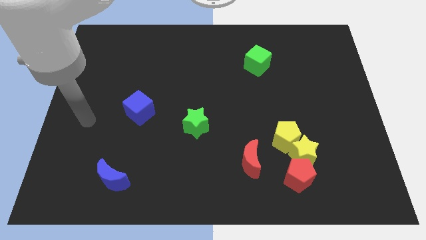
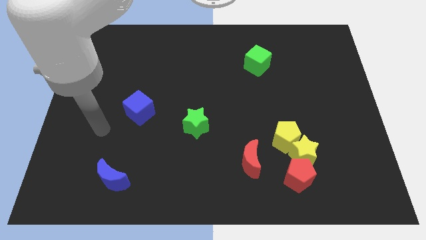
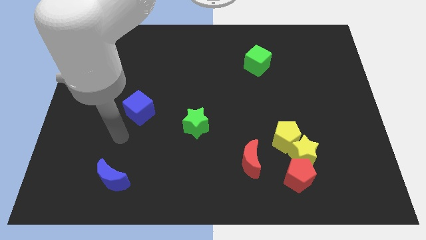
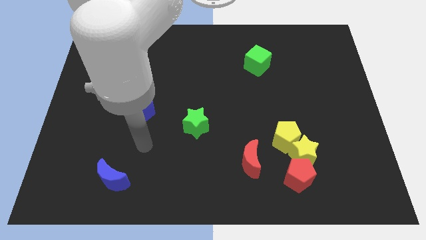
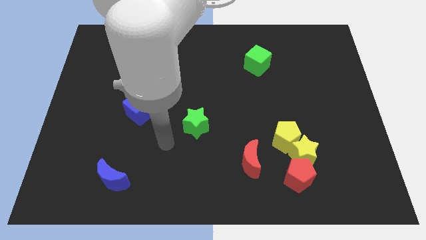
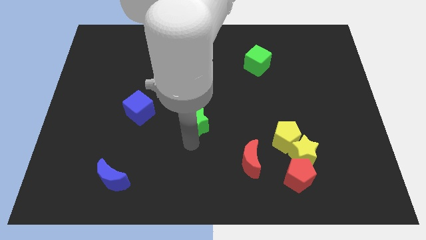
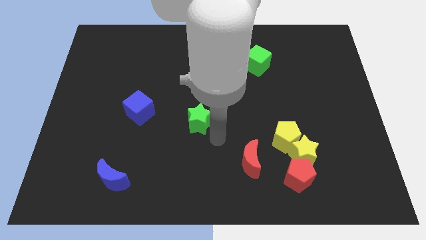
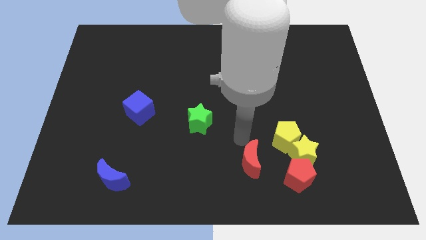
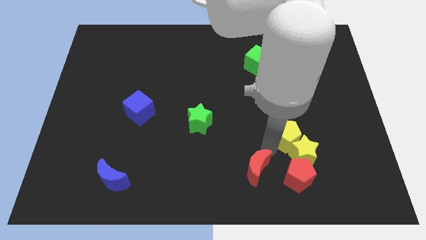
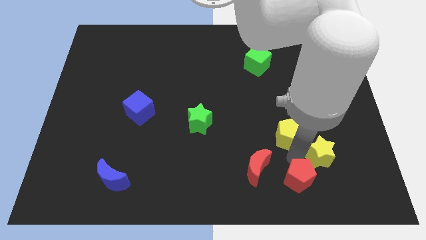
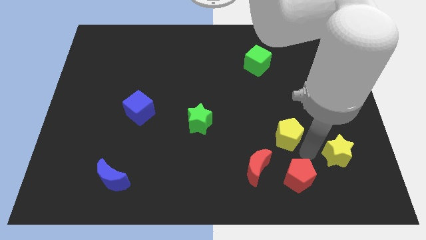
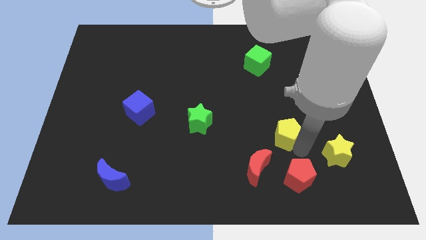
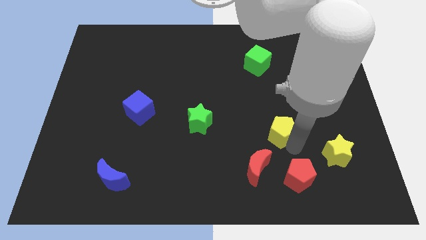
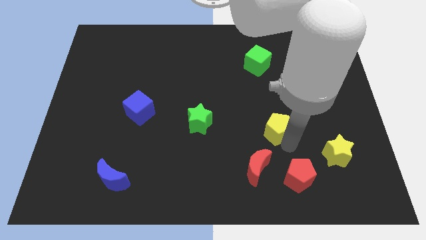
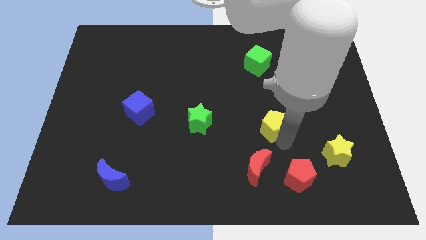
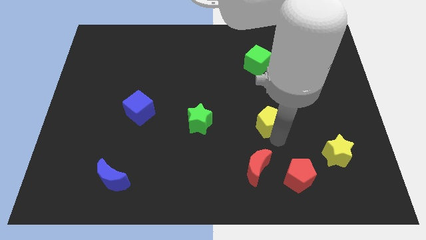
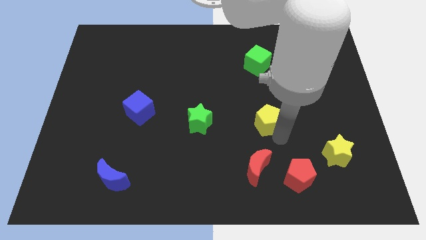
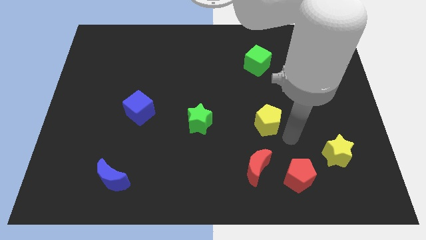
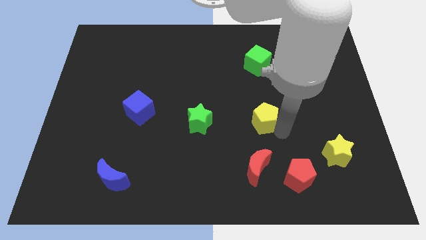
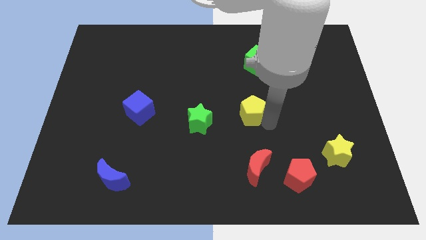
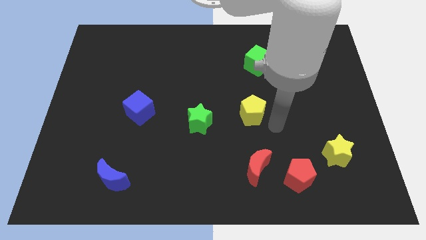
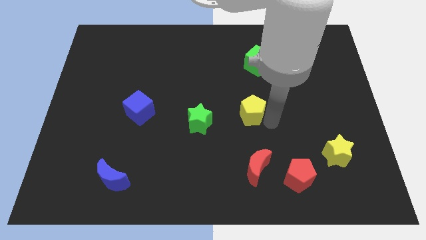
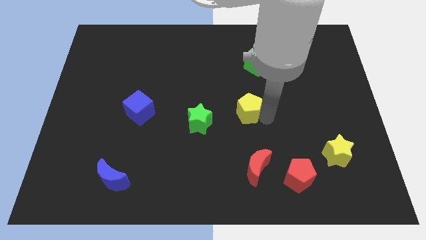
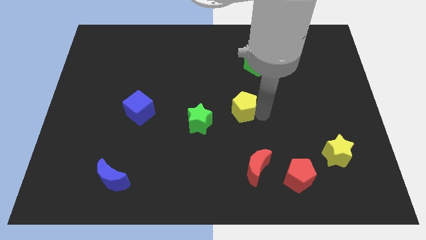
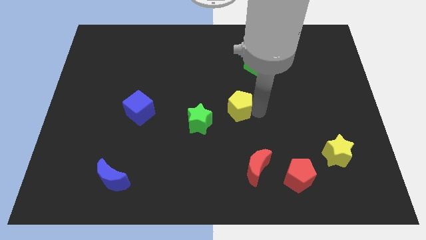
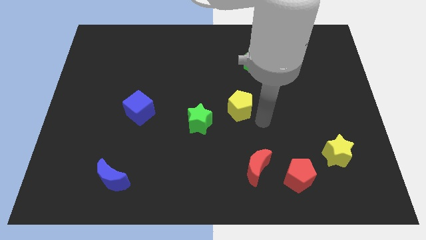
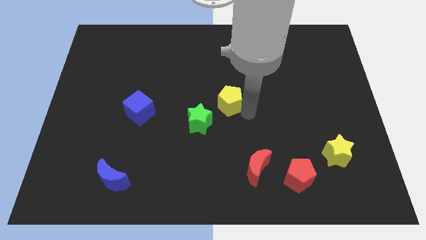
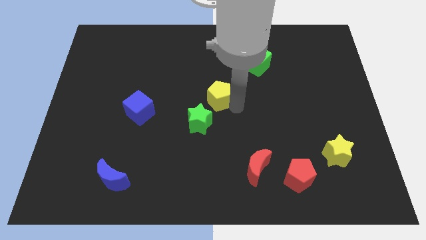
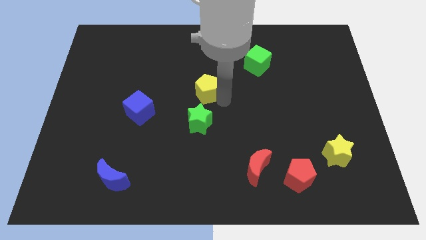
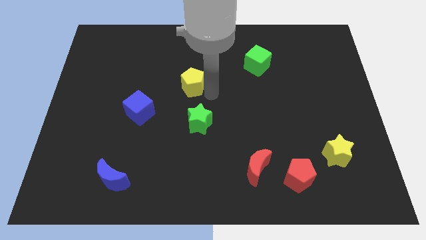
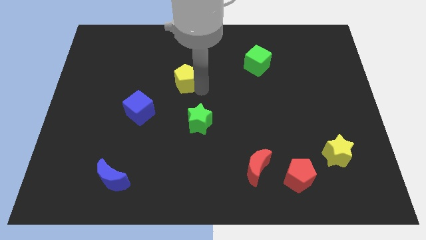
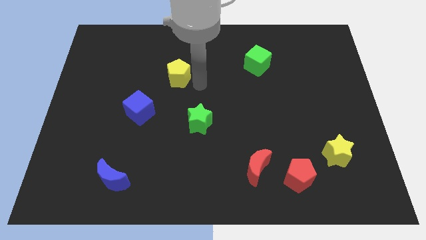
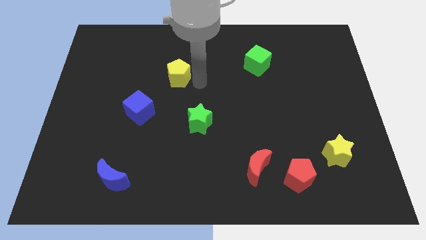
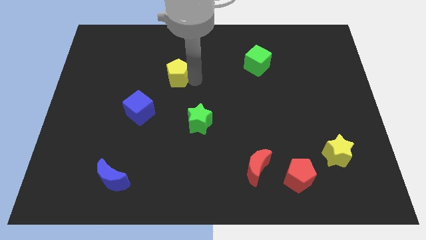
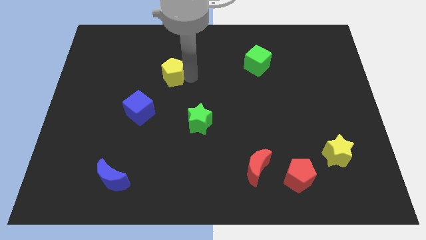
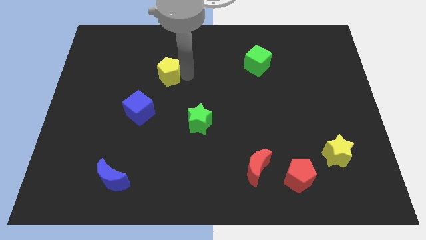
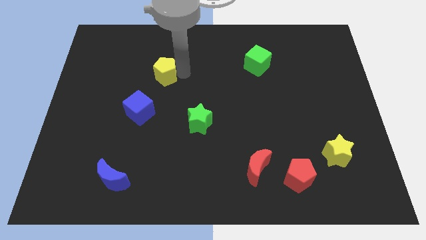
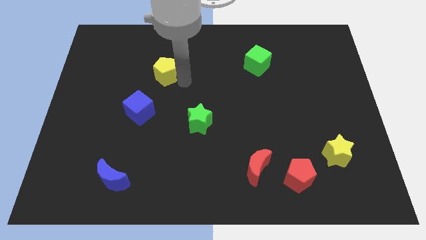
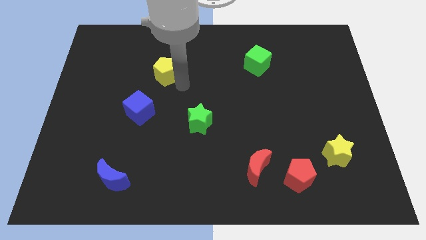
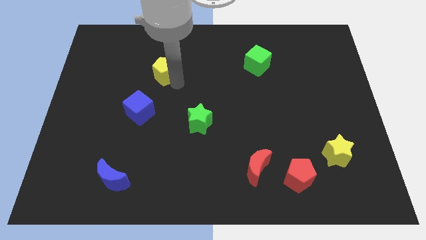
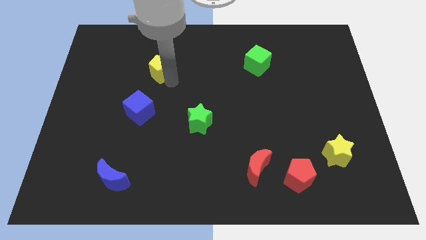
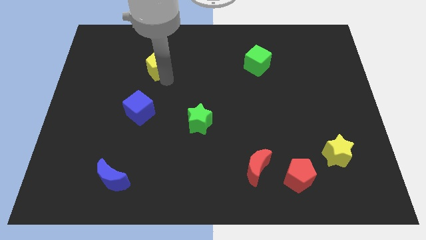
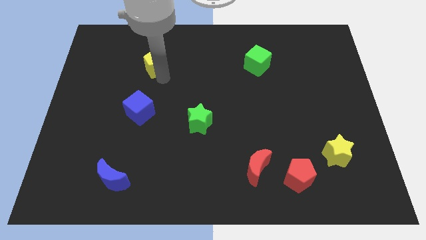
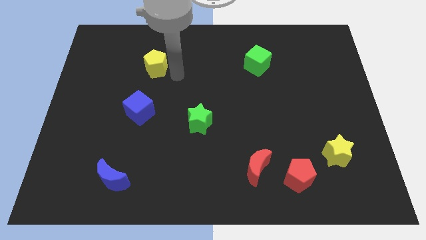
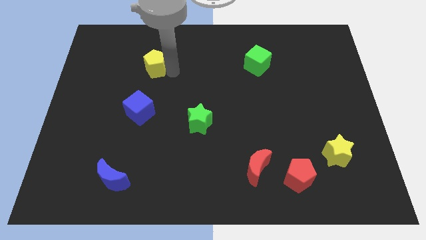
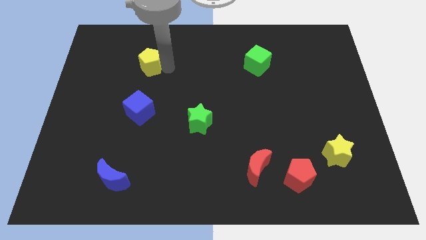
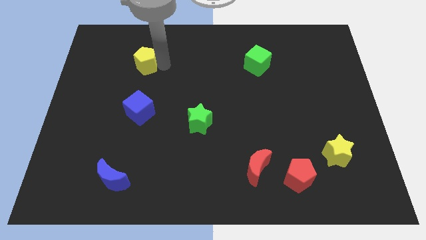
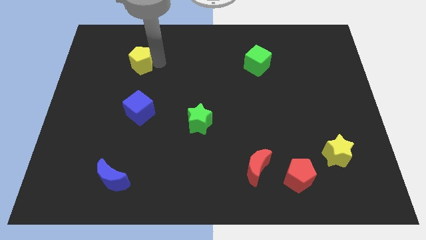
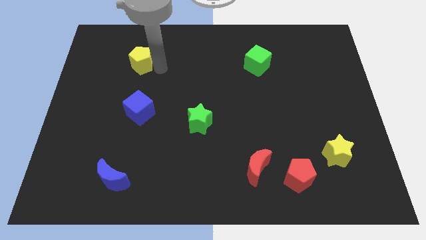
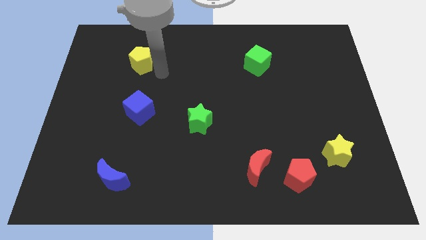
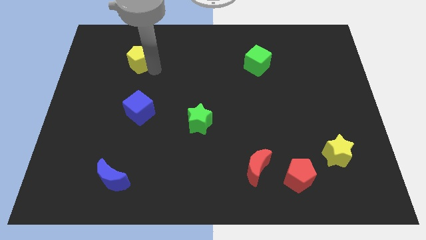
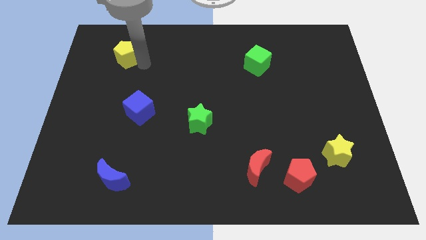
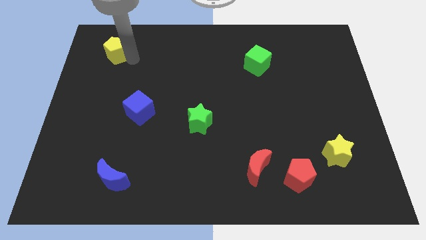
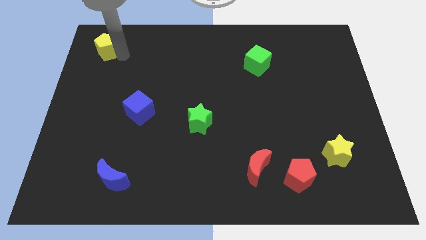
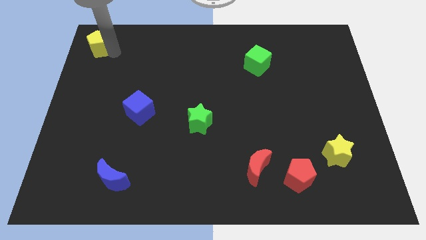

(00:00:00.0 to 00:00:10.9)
put the yellow pentagon to the top left of the board

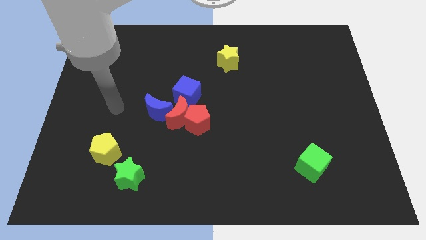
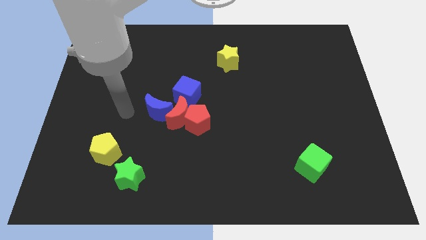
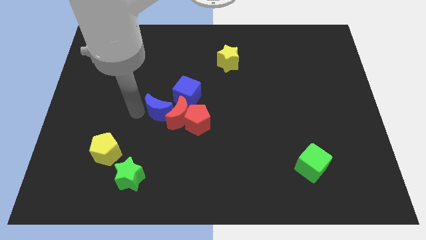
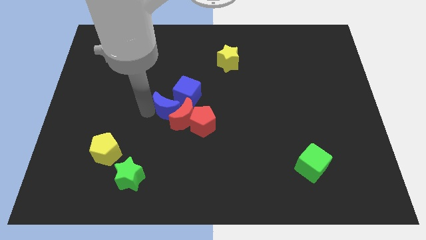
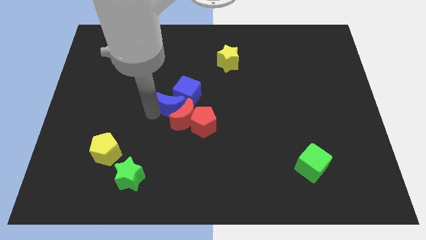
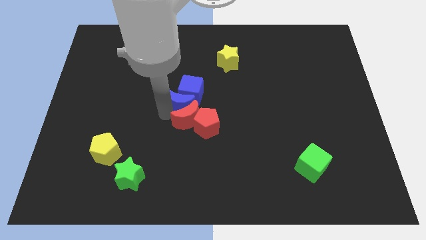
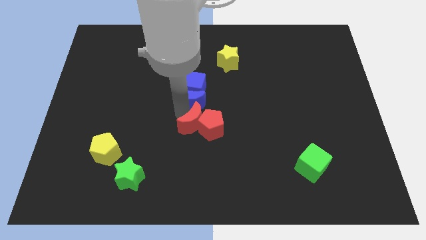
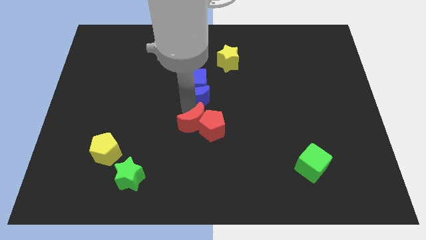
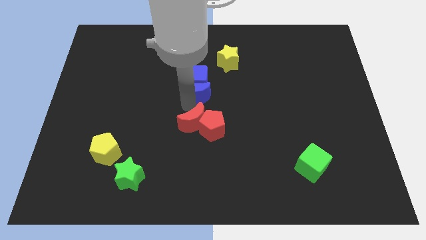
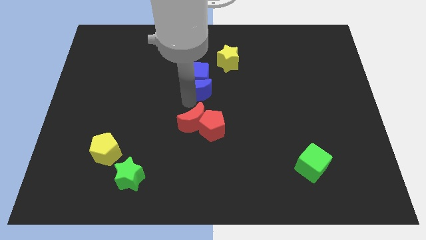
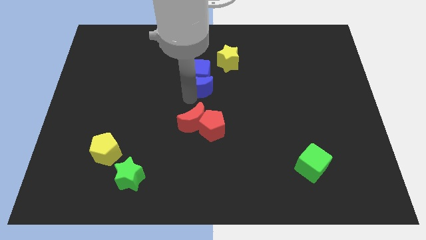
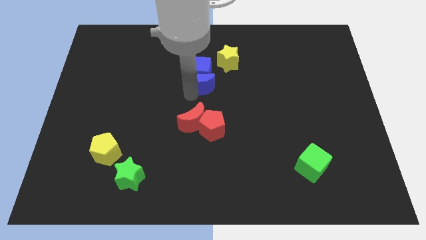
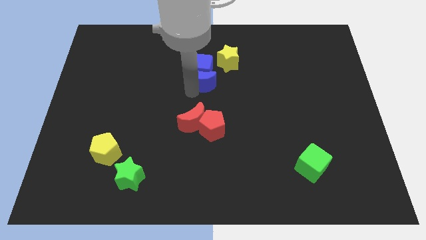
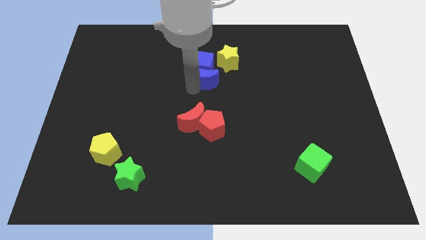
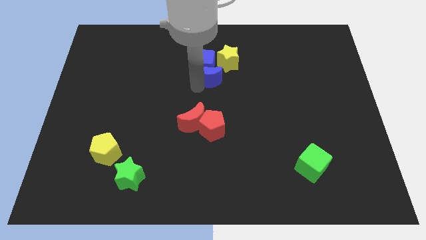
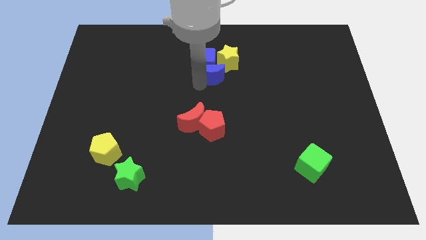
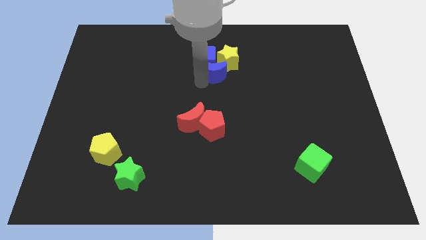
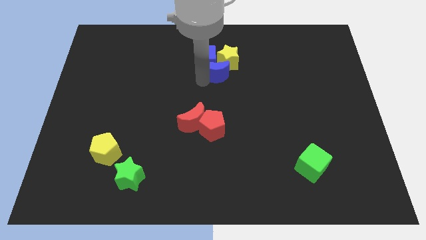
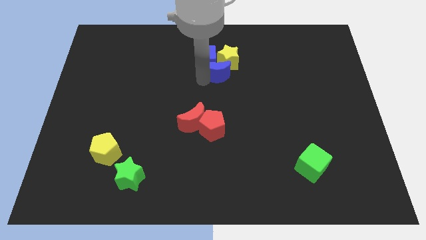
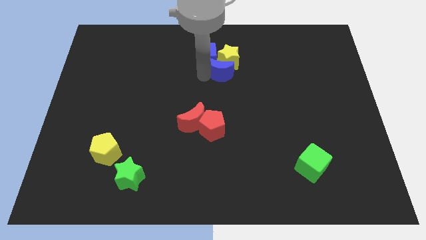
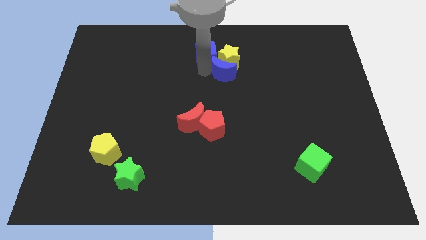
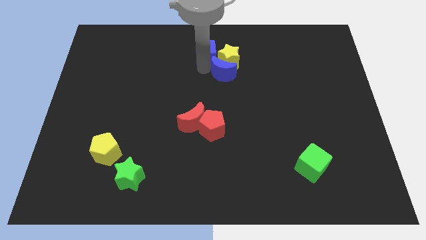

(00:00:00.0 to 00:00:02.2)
slide the blue cube to the towards your base
